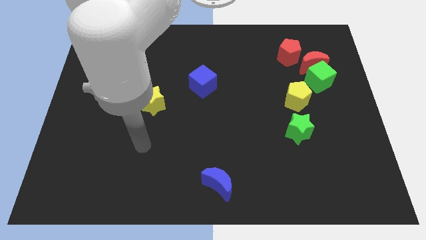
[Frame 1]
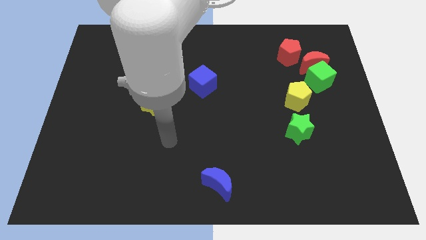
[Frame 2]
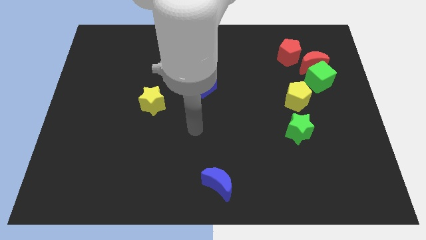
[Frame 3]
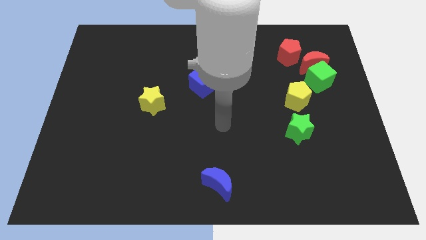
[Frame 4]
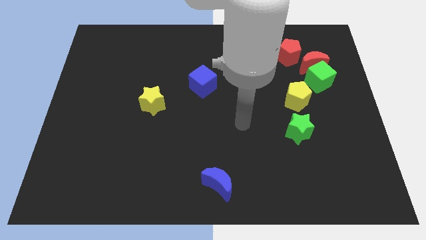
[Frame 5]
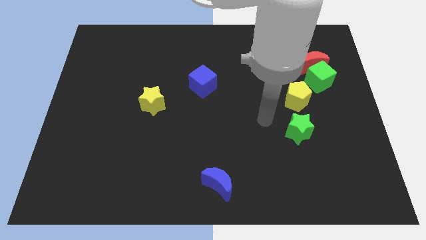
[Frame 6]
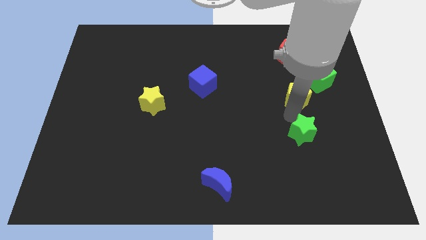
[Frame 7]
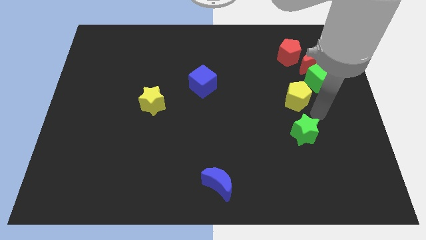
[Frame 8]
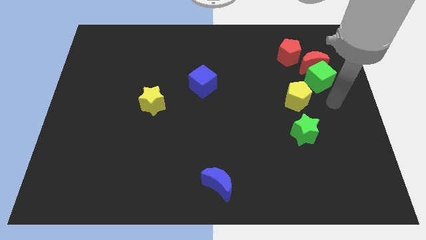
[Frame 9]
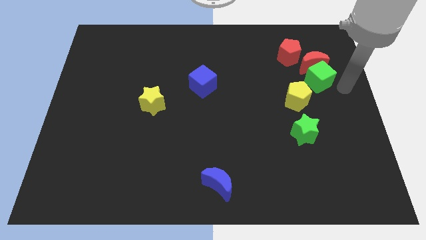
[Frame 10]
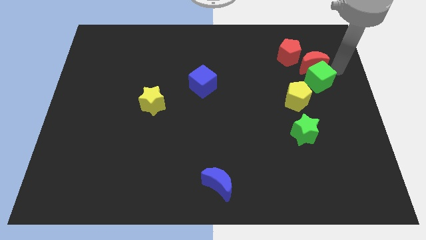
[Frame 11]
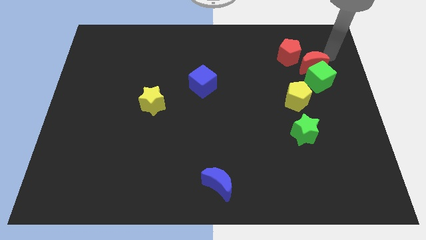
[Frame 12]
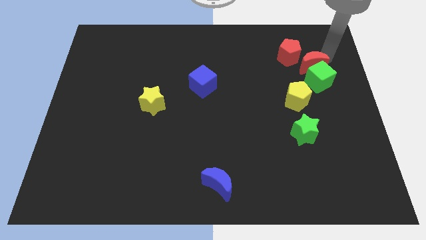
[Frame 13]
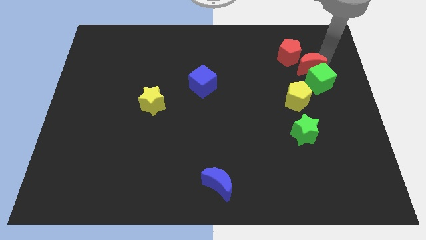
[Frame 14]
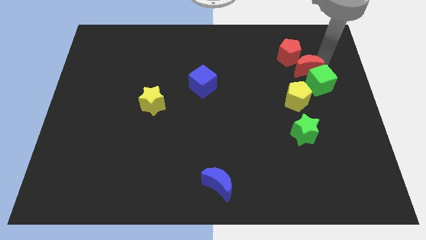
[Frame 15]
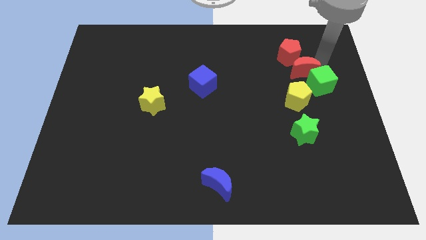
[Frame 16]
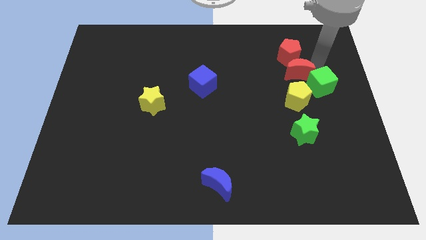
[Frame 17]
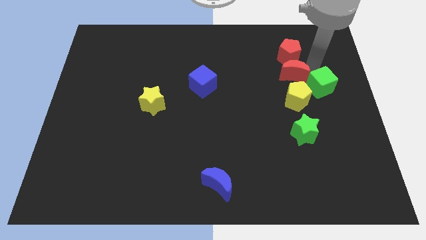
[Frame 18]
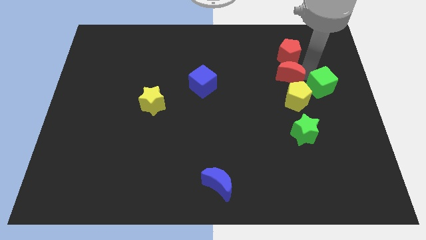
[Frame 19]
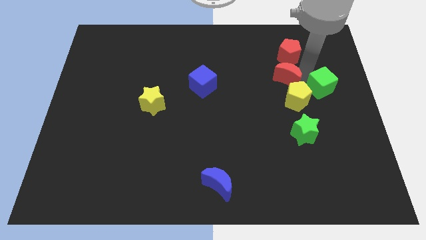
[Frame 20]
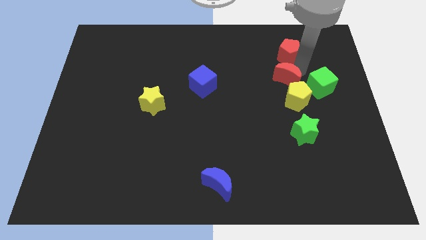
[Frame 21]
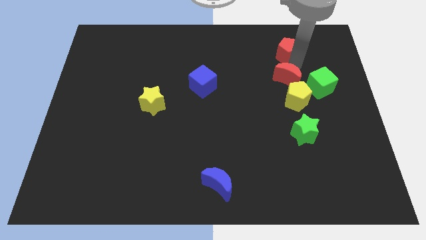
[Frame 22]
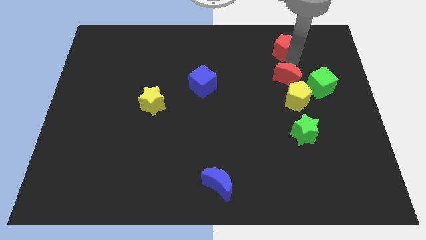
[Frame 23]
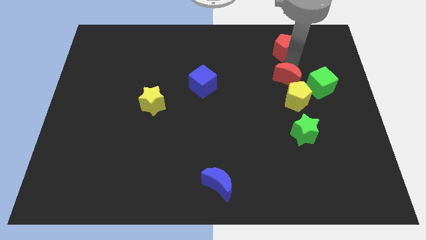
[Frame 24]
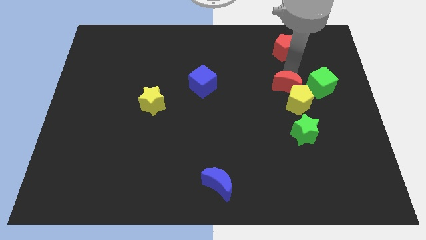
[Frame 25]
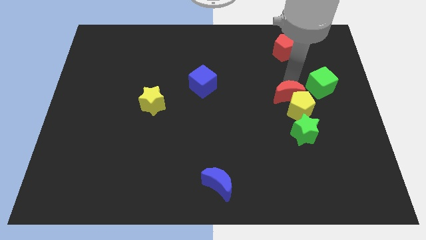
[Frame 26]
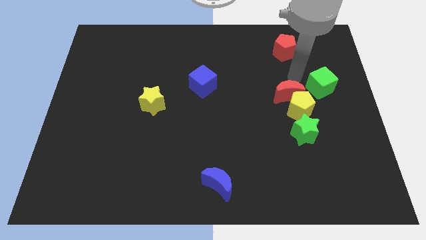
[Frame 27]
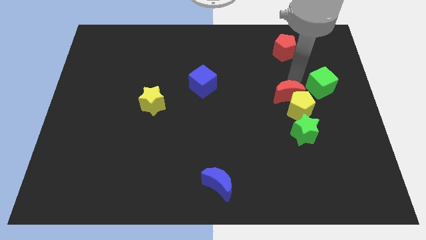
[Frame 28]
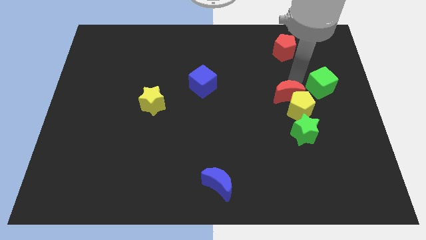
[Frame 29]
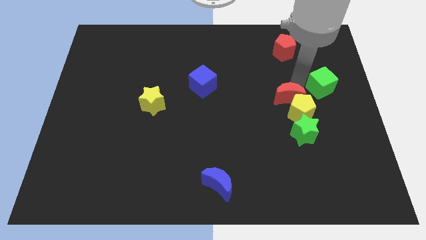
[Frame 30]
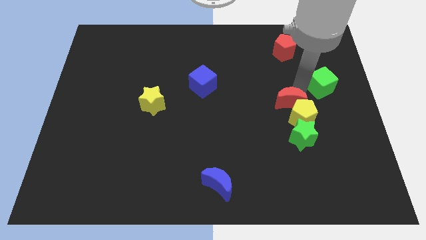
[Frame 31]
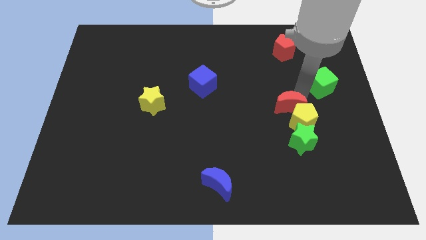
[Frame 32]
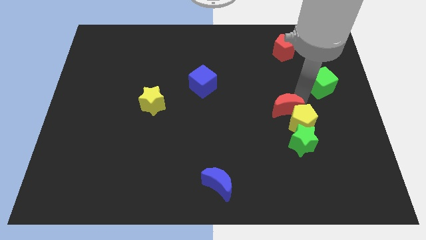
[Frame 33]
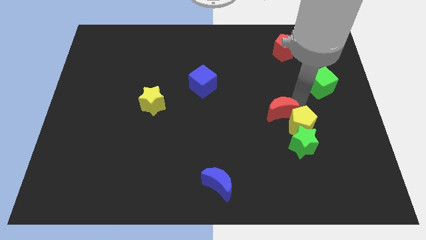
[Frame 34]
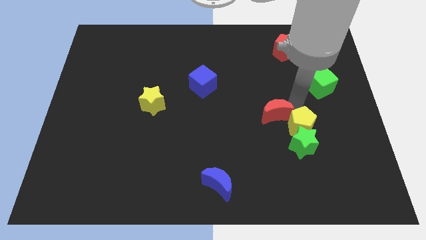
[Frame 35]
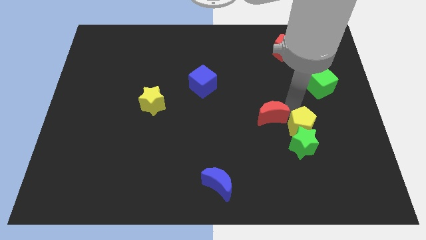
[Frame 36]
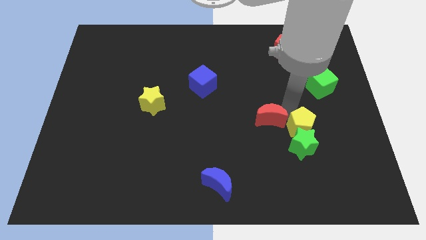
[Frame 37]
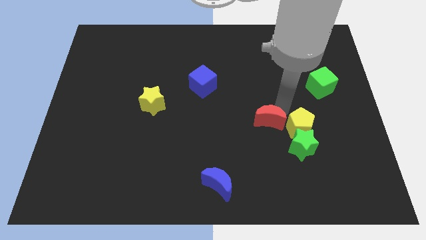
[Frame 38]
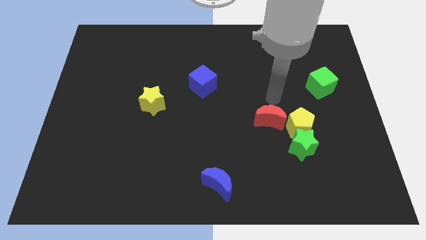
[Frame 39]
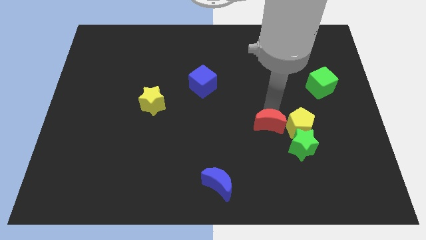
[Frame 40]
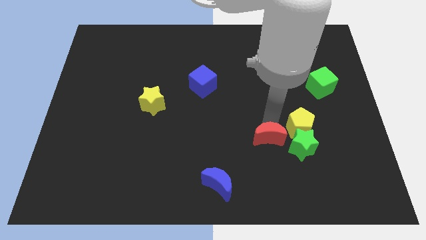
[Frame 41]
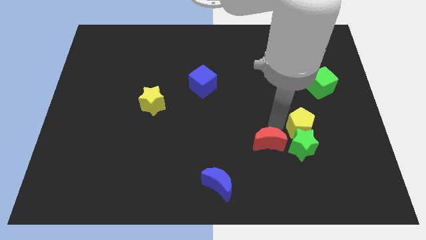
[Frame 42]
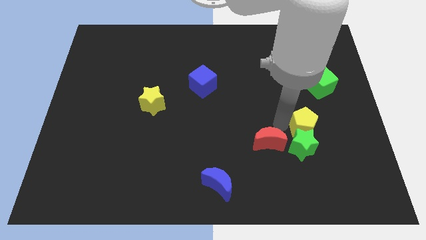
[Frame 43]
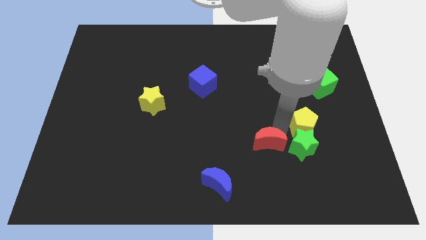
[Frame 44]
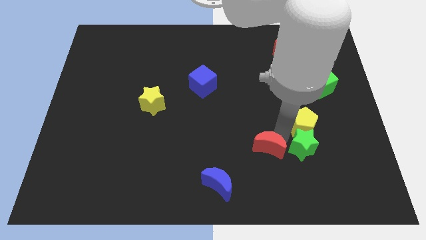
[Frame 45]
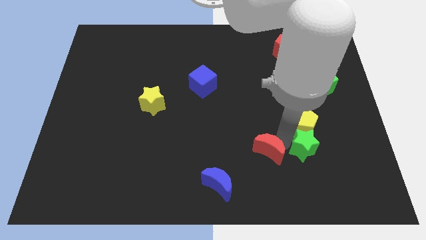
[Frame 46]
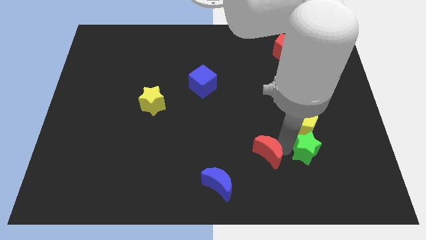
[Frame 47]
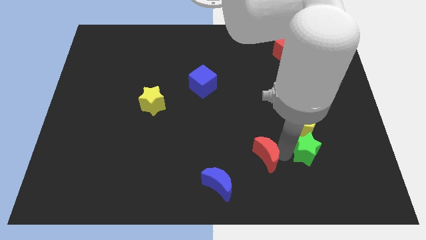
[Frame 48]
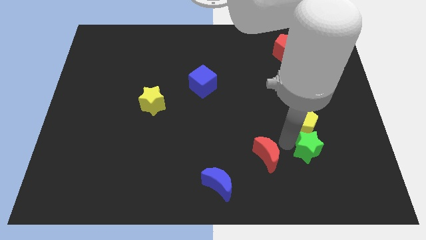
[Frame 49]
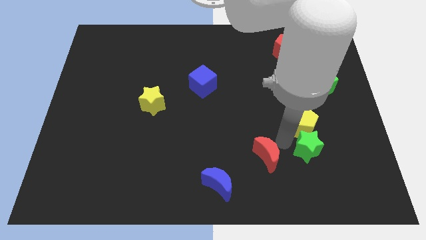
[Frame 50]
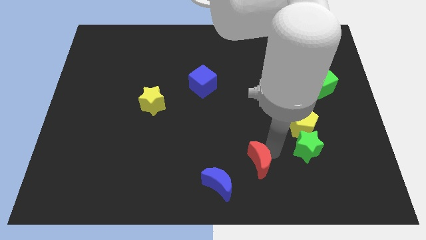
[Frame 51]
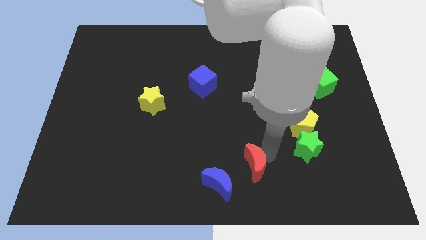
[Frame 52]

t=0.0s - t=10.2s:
put the red moon to the bottom

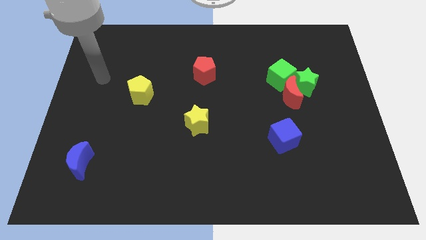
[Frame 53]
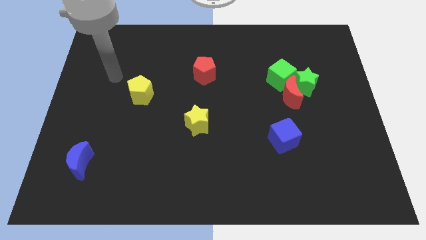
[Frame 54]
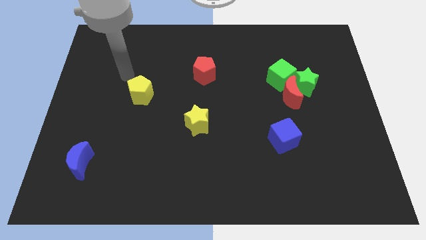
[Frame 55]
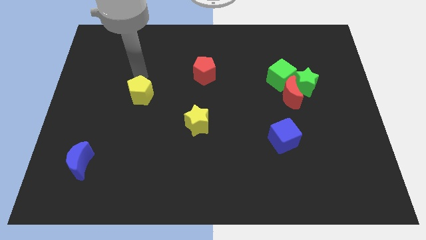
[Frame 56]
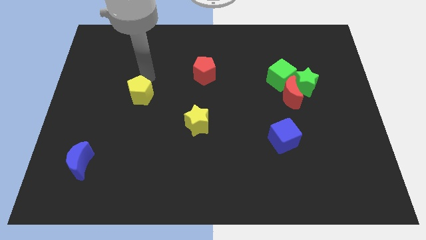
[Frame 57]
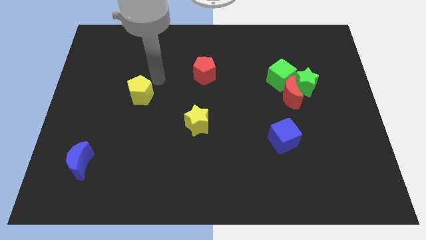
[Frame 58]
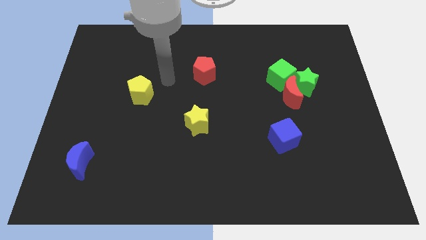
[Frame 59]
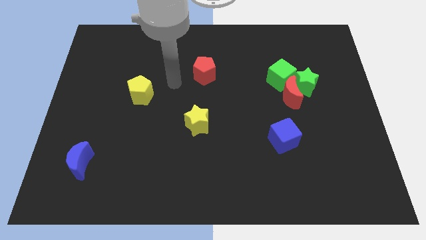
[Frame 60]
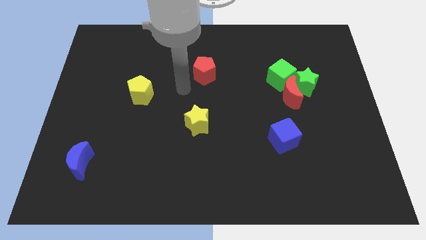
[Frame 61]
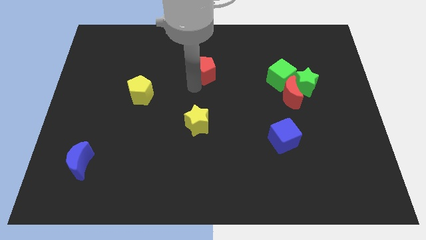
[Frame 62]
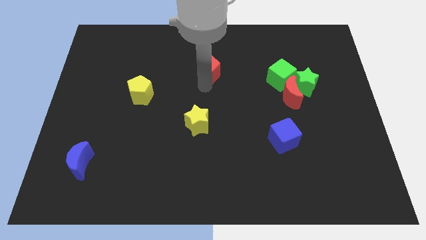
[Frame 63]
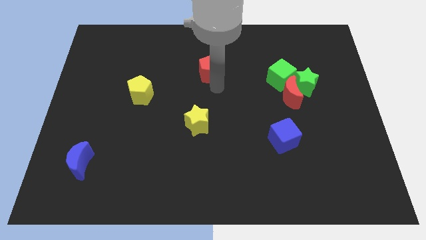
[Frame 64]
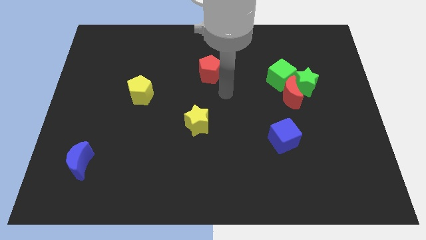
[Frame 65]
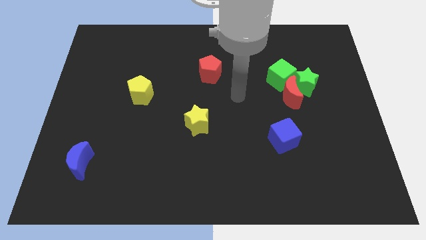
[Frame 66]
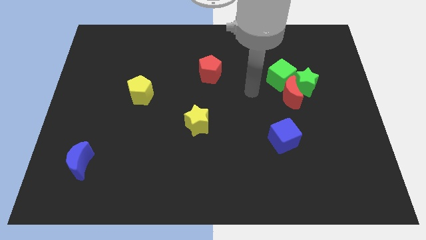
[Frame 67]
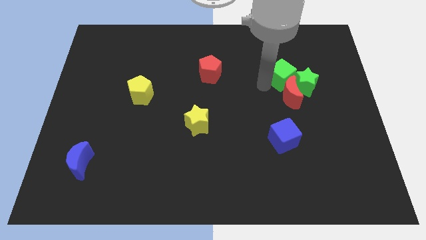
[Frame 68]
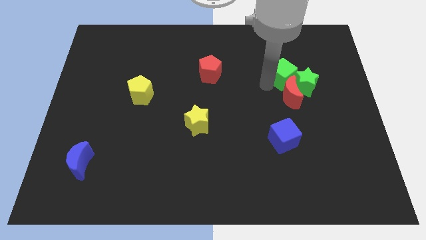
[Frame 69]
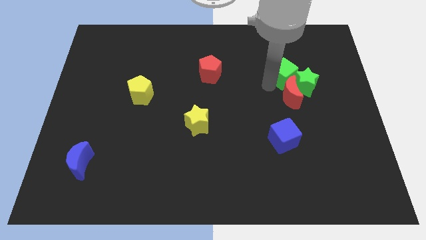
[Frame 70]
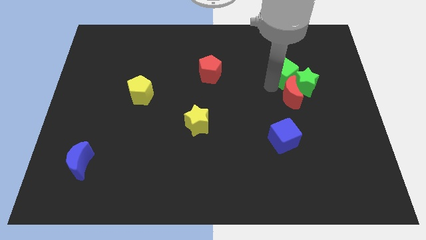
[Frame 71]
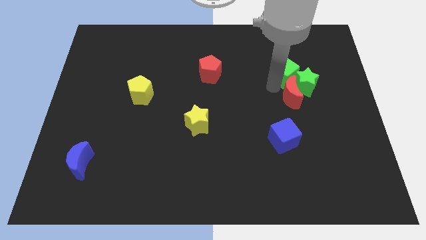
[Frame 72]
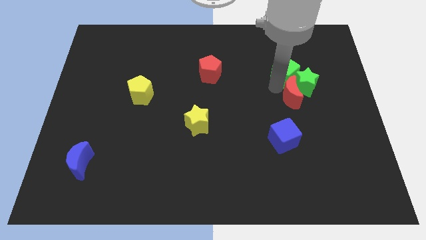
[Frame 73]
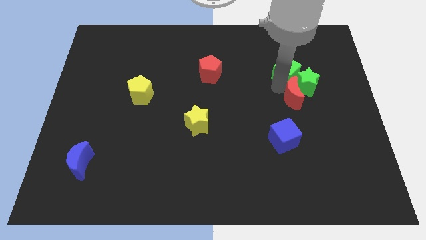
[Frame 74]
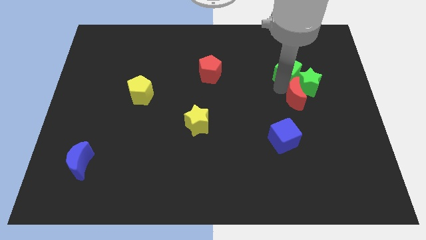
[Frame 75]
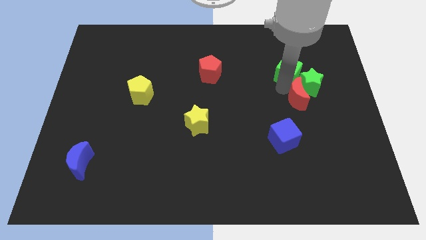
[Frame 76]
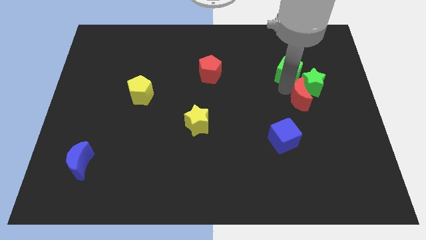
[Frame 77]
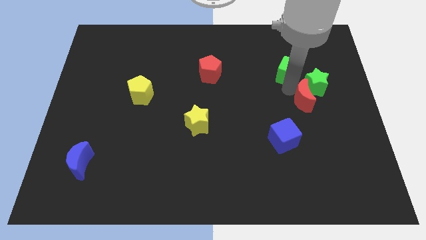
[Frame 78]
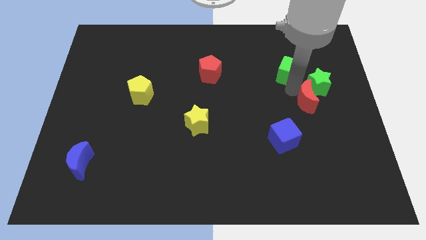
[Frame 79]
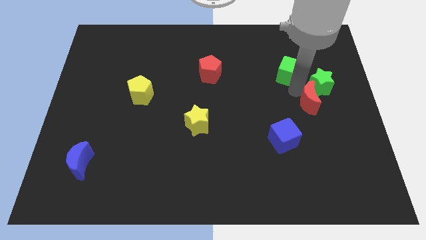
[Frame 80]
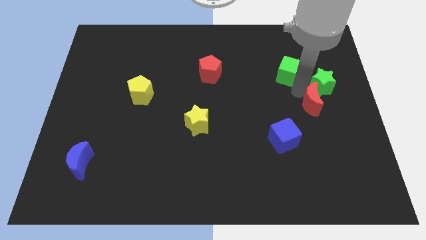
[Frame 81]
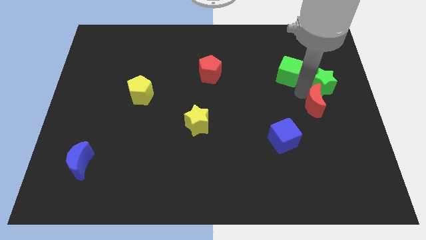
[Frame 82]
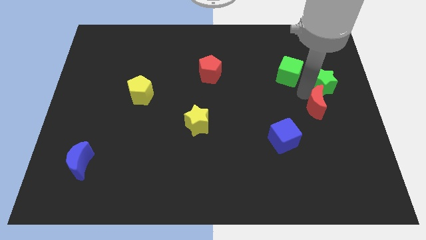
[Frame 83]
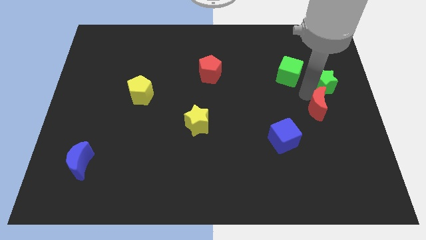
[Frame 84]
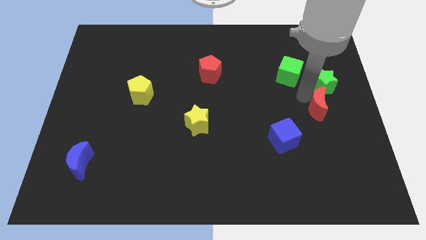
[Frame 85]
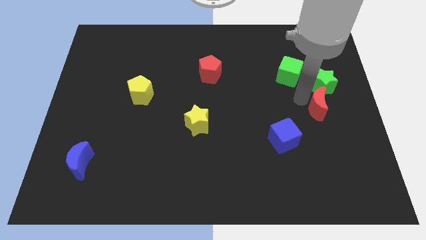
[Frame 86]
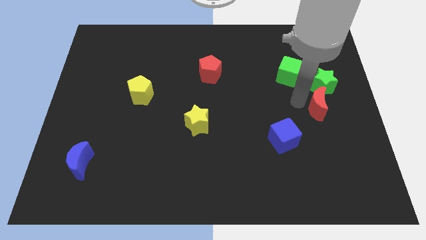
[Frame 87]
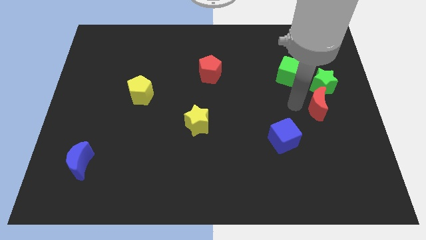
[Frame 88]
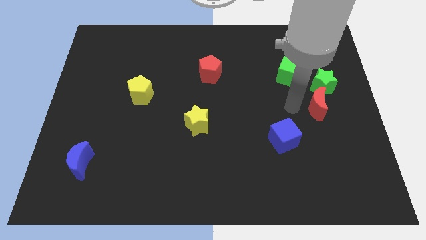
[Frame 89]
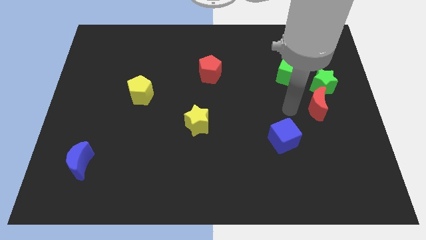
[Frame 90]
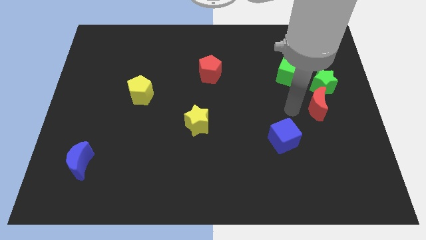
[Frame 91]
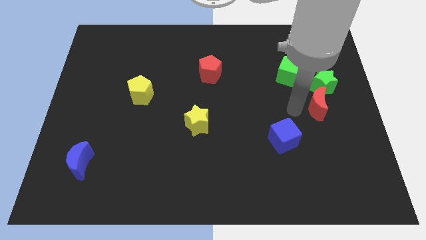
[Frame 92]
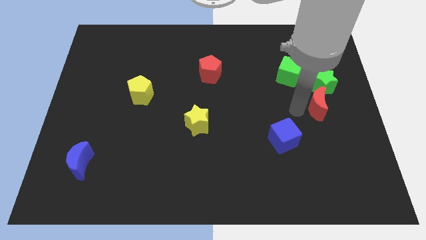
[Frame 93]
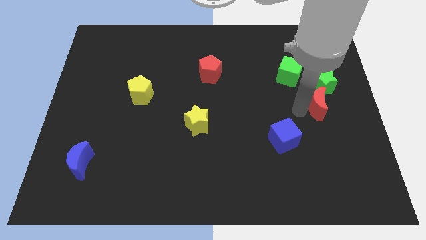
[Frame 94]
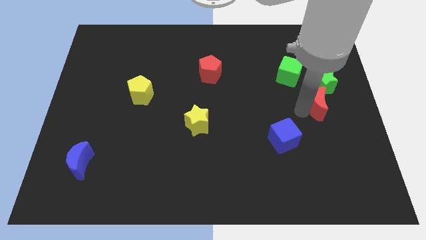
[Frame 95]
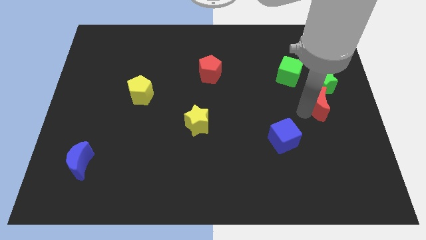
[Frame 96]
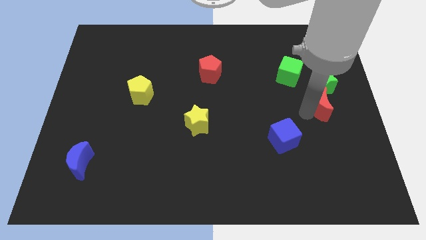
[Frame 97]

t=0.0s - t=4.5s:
push the red moon to the right side of the board
